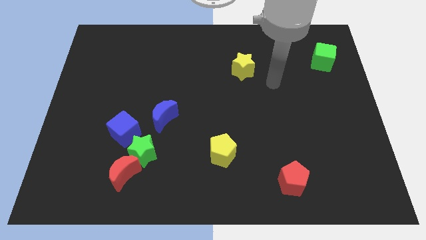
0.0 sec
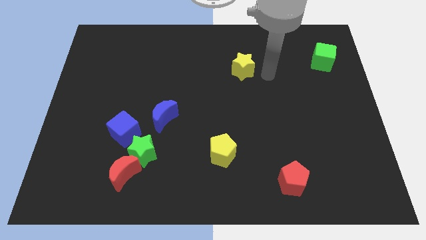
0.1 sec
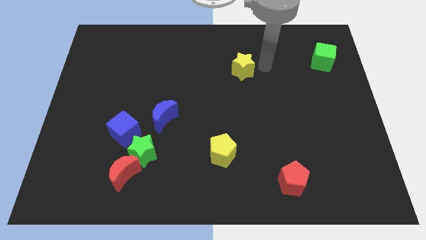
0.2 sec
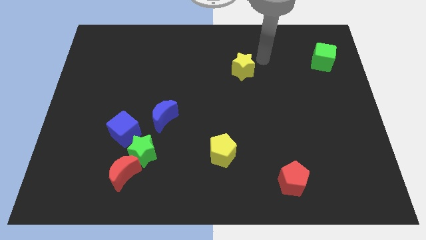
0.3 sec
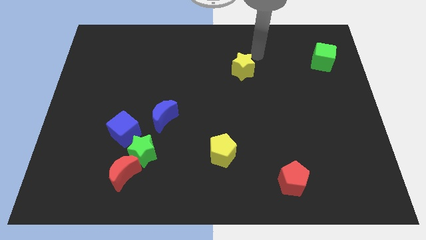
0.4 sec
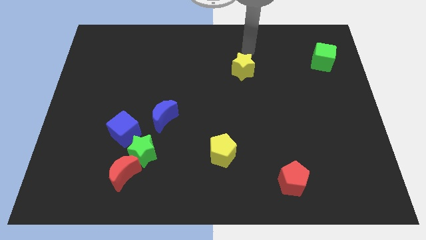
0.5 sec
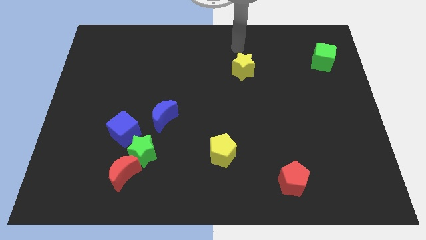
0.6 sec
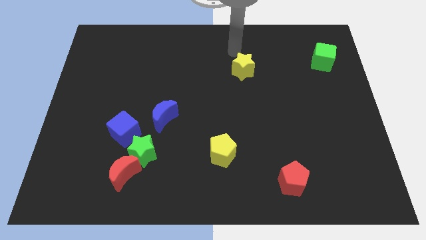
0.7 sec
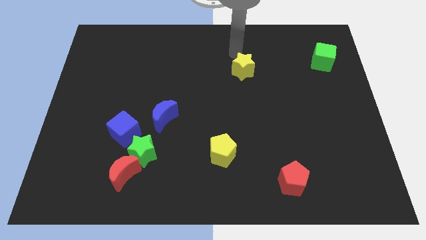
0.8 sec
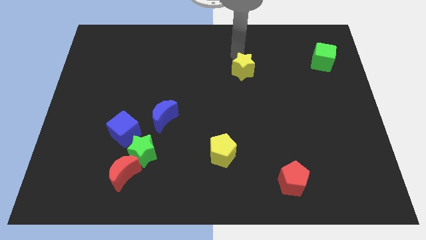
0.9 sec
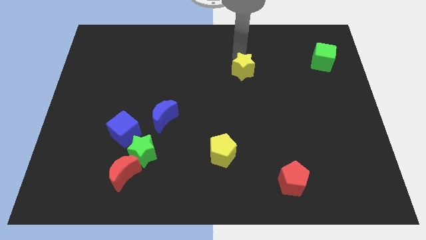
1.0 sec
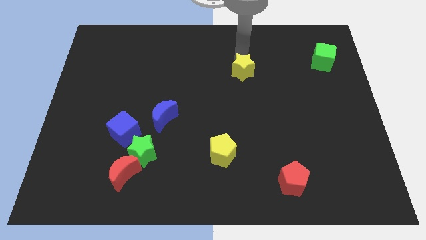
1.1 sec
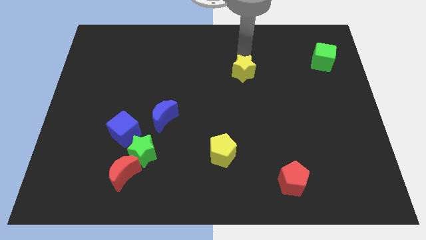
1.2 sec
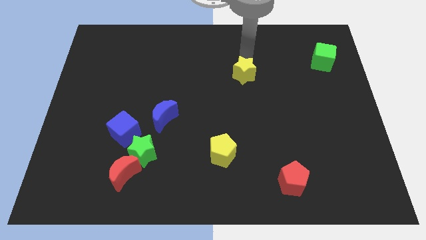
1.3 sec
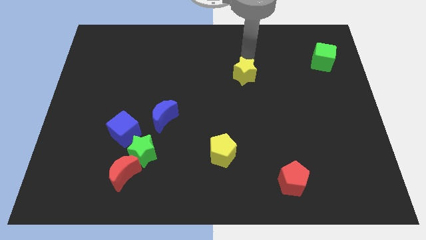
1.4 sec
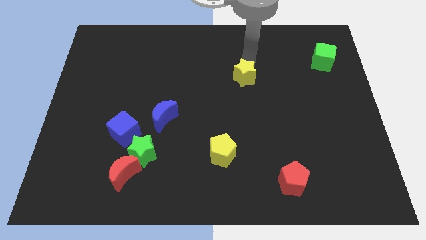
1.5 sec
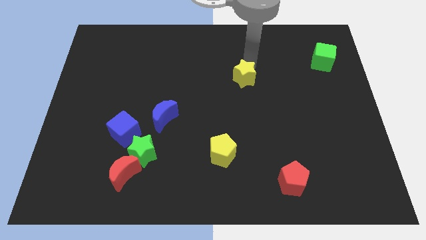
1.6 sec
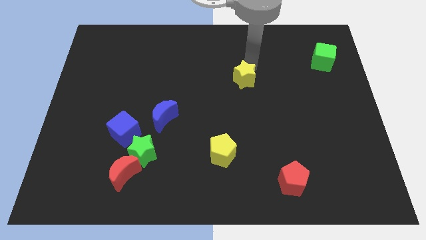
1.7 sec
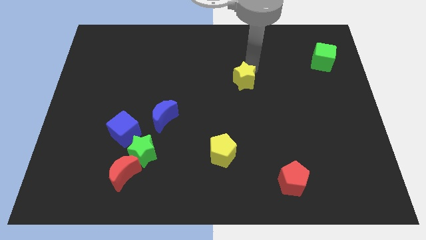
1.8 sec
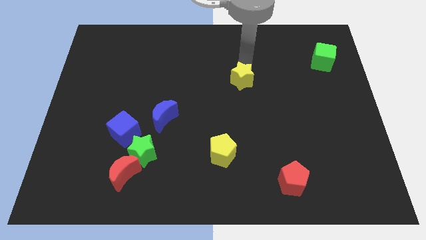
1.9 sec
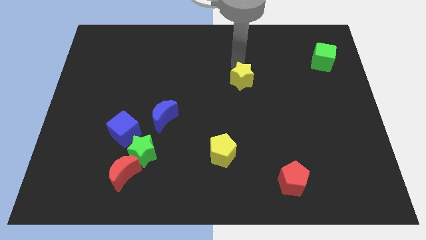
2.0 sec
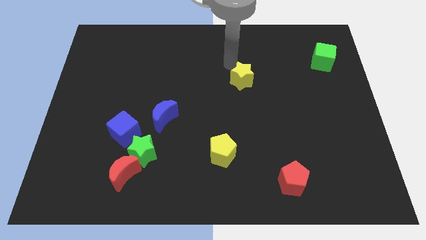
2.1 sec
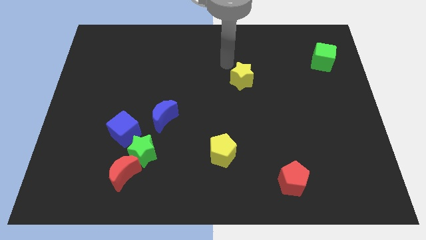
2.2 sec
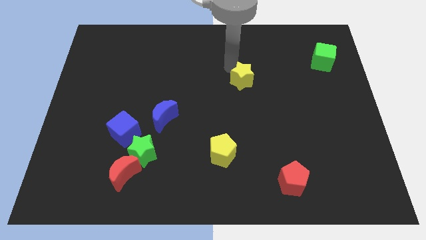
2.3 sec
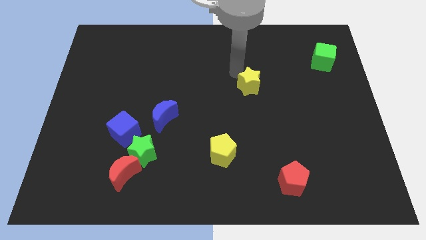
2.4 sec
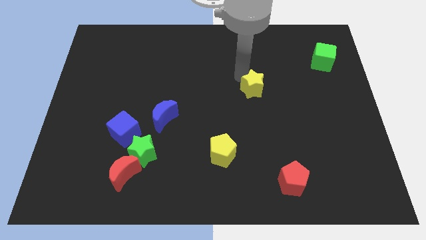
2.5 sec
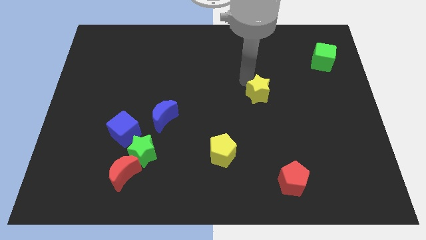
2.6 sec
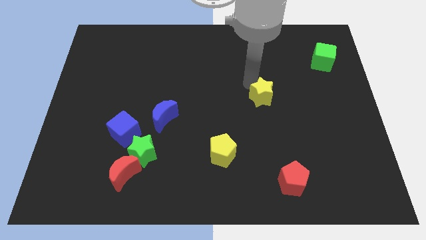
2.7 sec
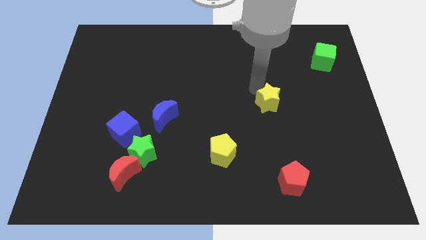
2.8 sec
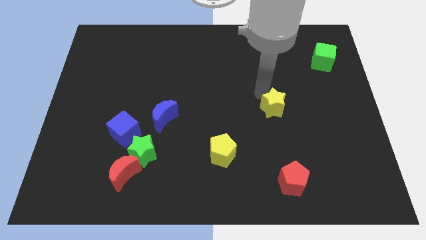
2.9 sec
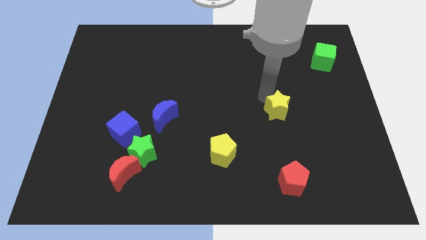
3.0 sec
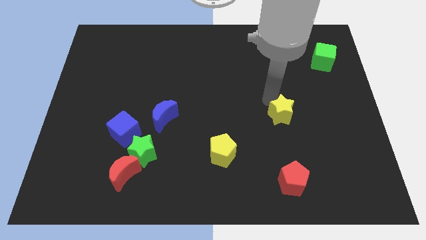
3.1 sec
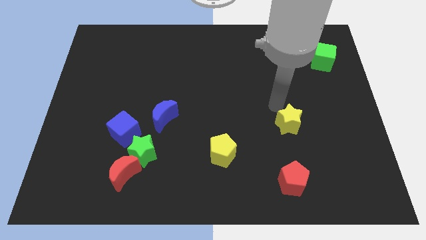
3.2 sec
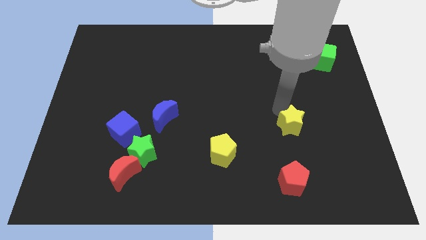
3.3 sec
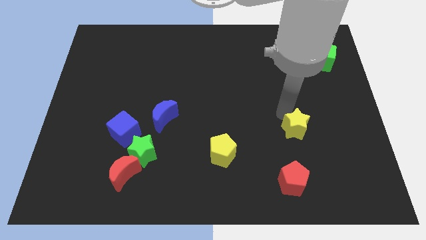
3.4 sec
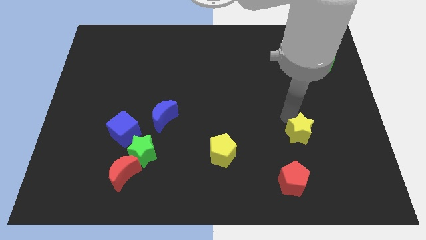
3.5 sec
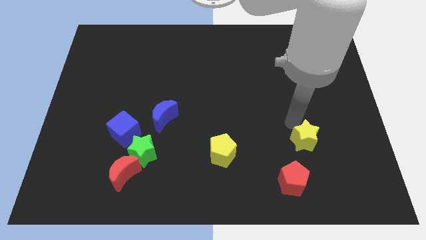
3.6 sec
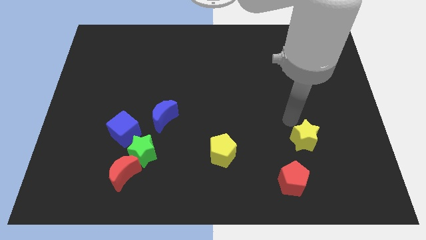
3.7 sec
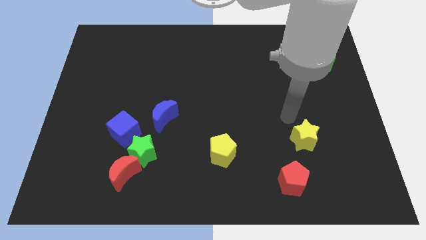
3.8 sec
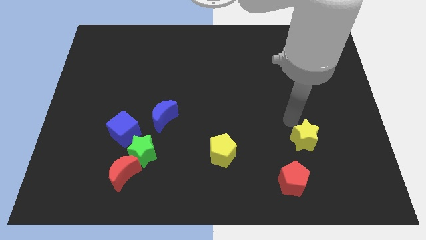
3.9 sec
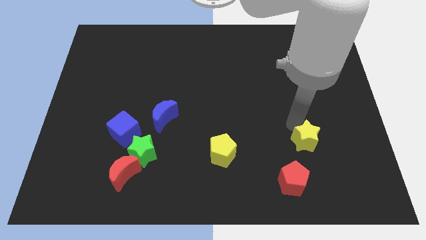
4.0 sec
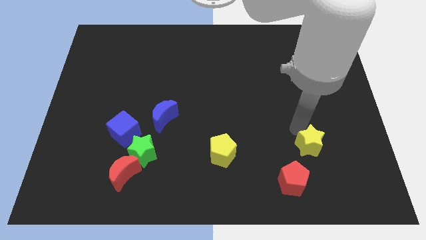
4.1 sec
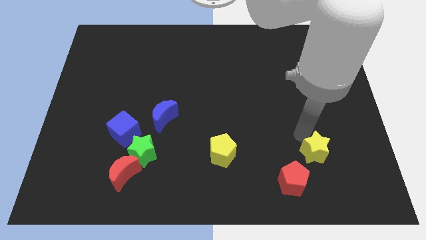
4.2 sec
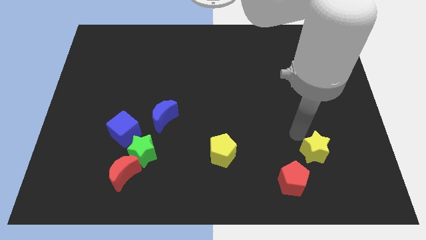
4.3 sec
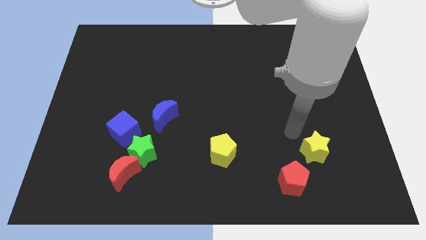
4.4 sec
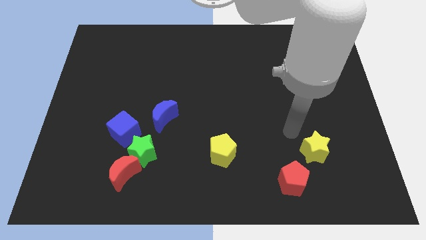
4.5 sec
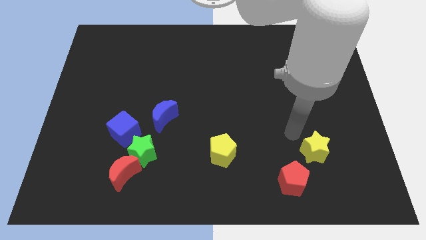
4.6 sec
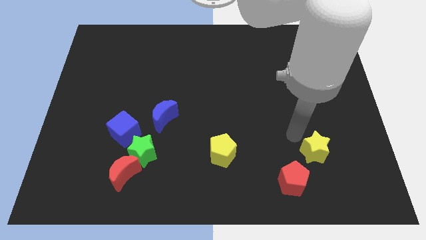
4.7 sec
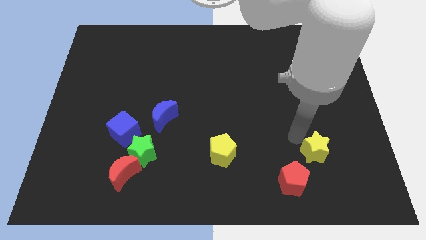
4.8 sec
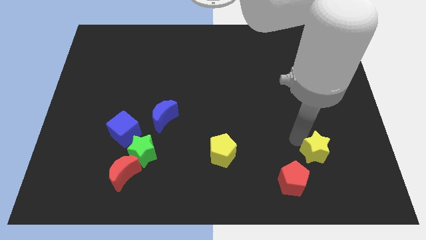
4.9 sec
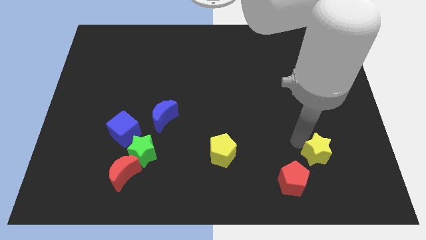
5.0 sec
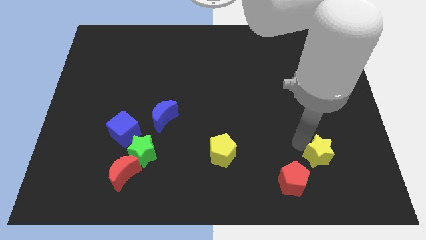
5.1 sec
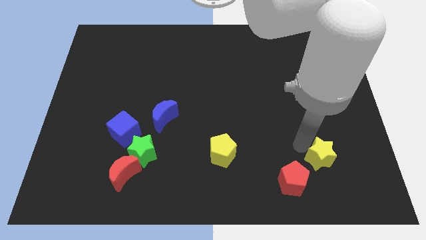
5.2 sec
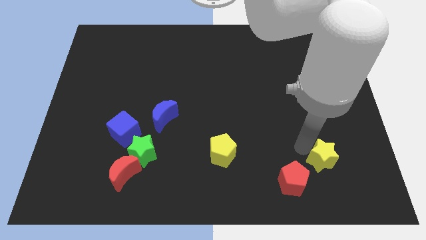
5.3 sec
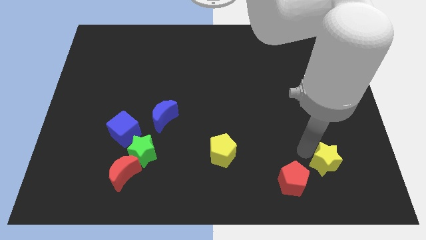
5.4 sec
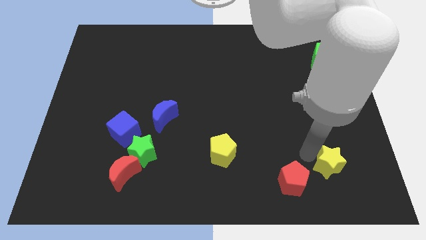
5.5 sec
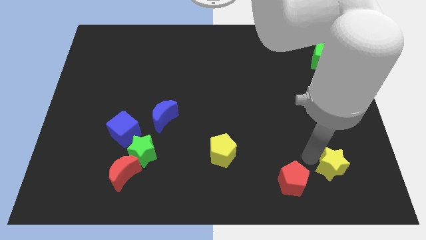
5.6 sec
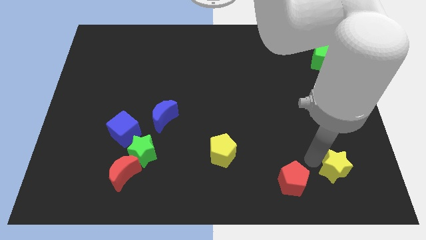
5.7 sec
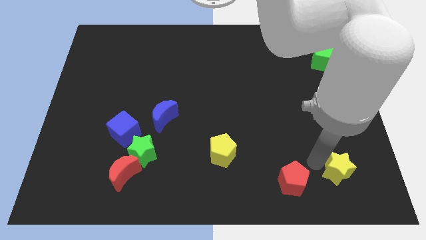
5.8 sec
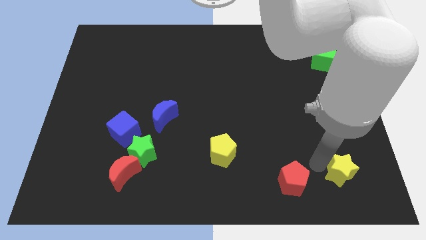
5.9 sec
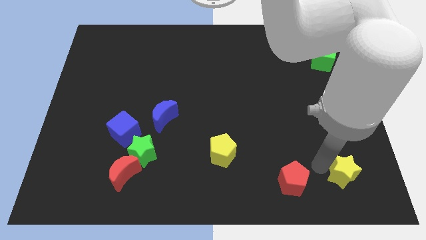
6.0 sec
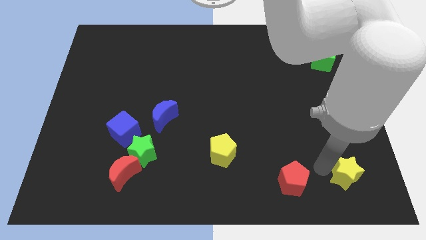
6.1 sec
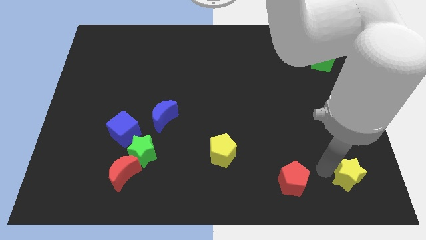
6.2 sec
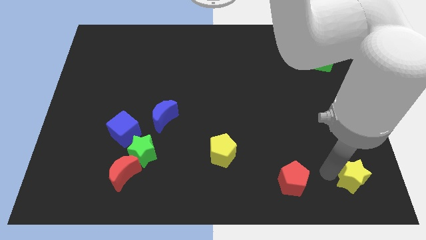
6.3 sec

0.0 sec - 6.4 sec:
slide the yellow star to the lower right corner

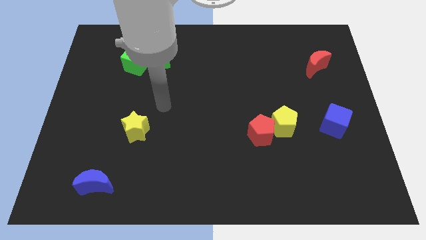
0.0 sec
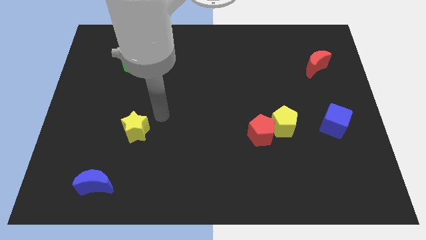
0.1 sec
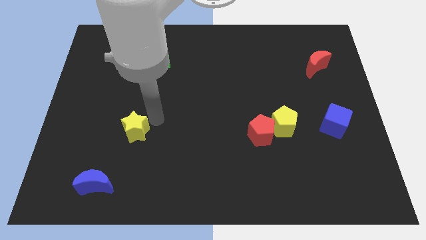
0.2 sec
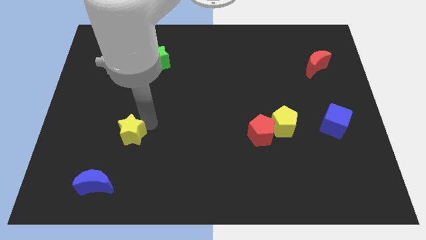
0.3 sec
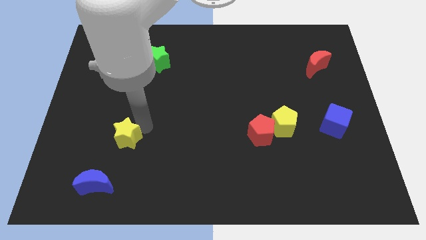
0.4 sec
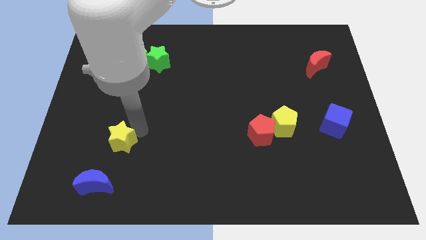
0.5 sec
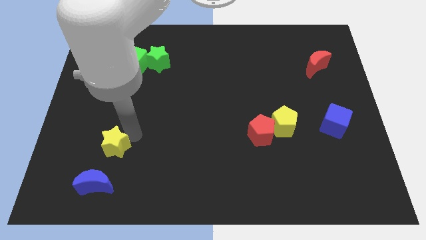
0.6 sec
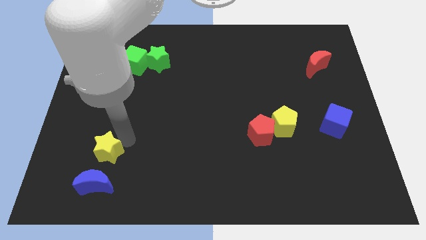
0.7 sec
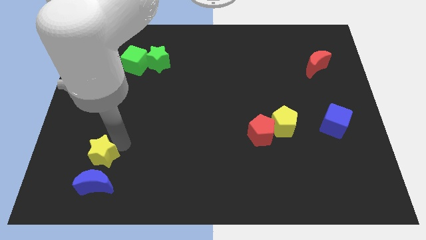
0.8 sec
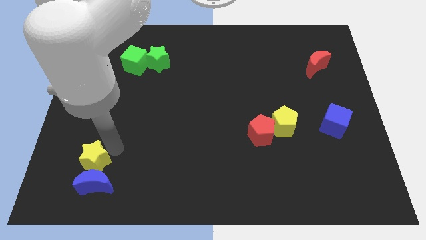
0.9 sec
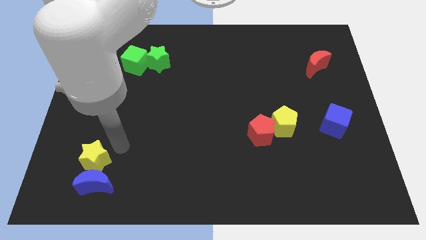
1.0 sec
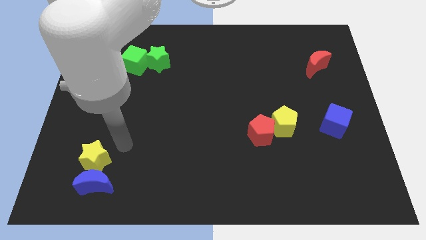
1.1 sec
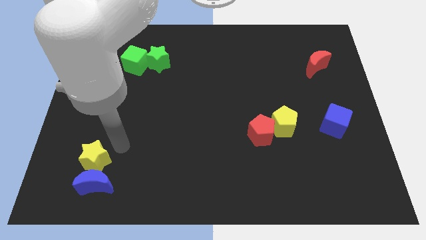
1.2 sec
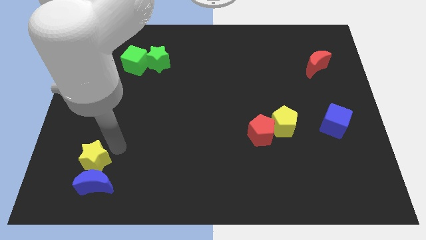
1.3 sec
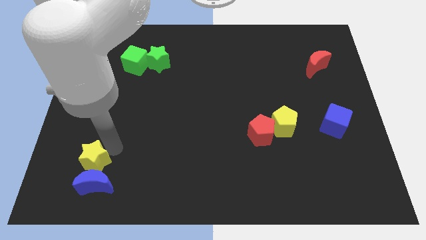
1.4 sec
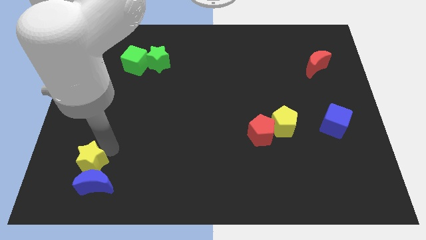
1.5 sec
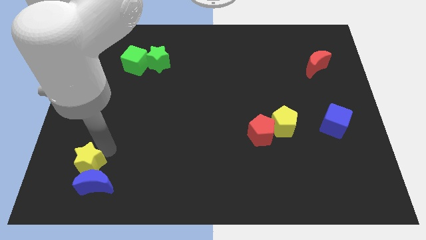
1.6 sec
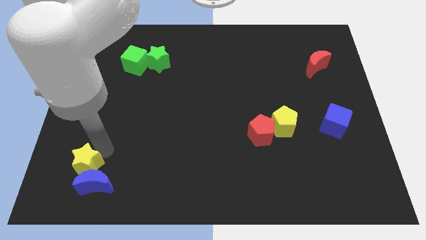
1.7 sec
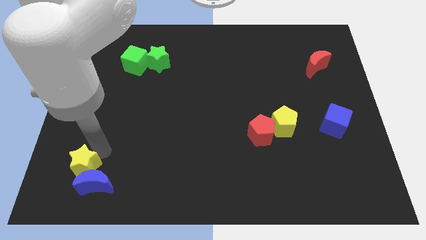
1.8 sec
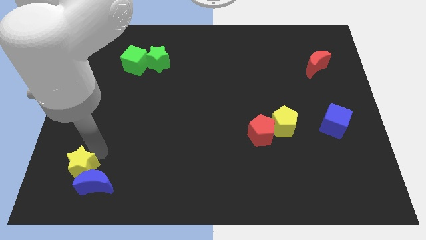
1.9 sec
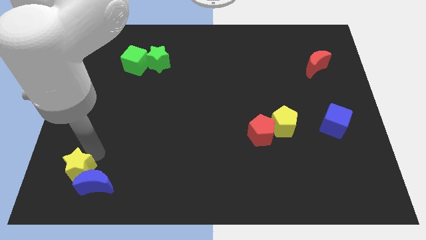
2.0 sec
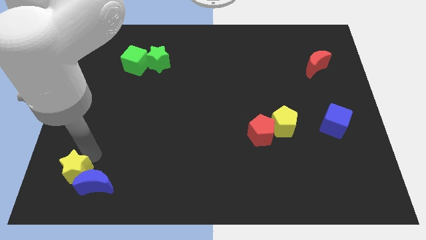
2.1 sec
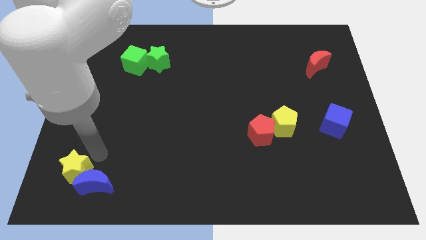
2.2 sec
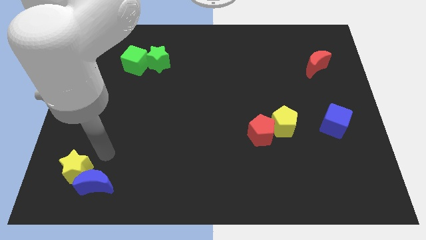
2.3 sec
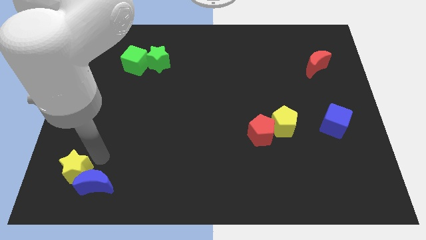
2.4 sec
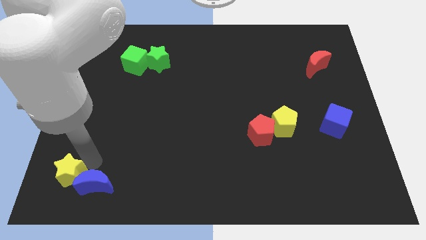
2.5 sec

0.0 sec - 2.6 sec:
push the yellow star to the bottom left of the board
